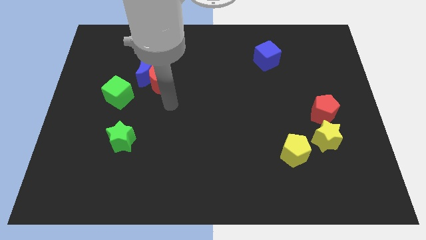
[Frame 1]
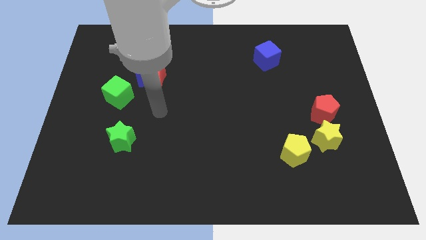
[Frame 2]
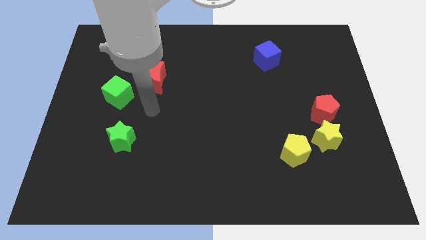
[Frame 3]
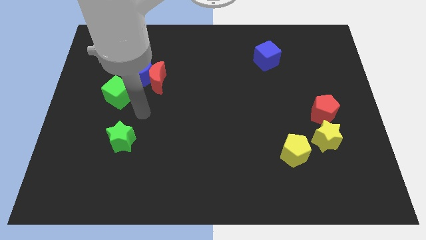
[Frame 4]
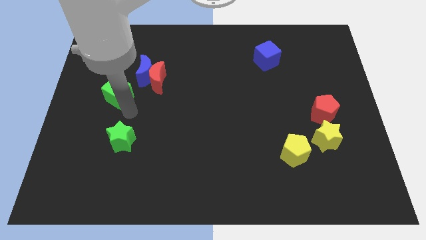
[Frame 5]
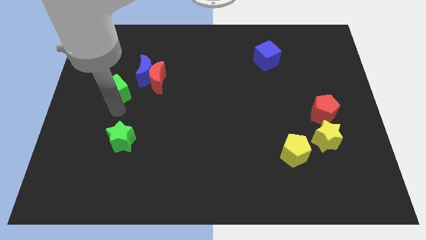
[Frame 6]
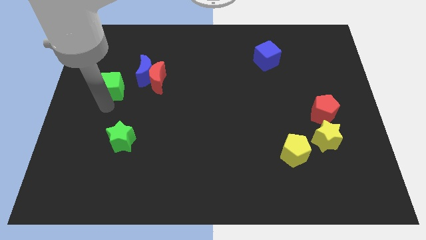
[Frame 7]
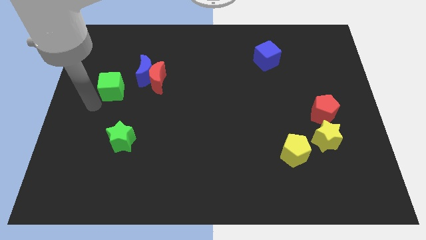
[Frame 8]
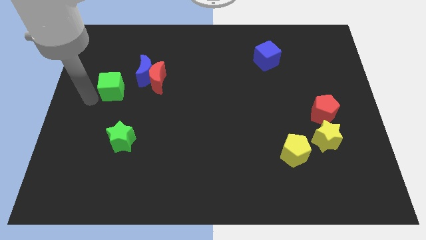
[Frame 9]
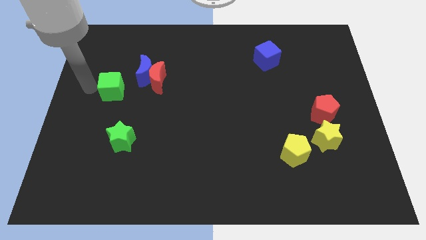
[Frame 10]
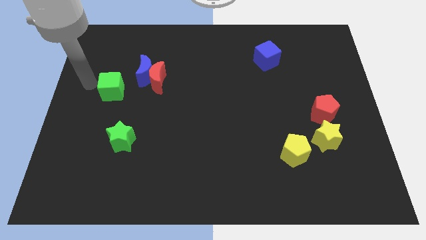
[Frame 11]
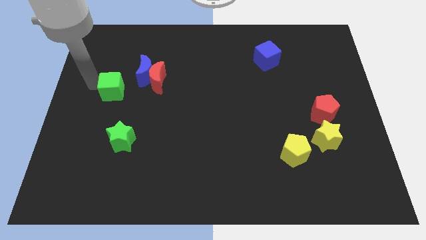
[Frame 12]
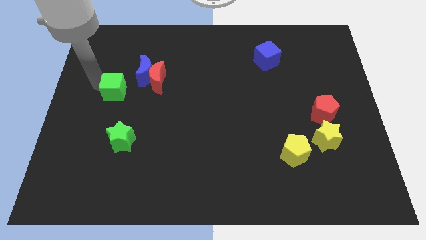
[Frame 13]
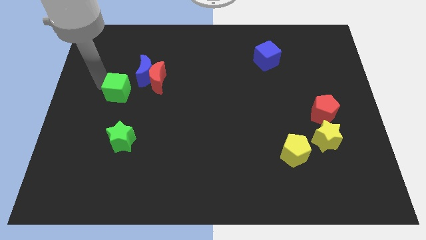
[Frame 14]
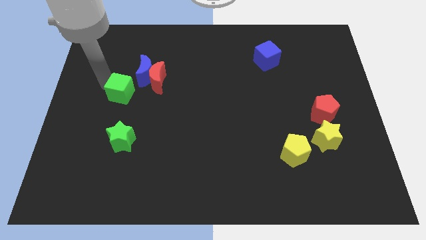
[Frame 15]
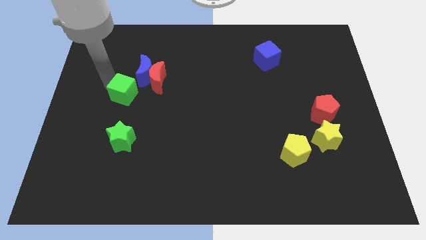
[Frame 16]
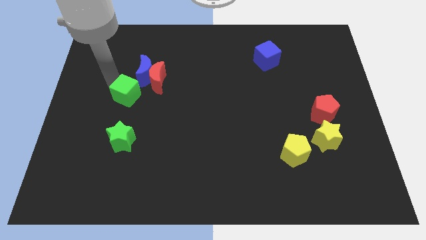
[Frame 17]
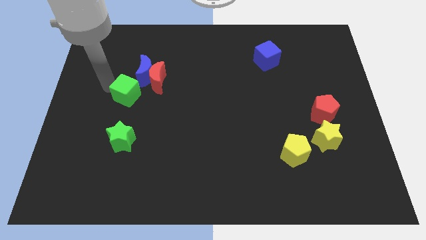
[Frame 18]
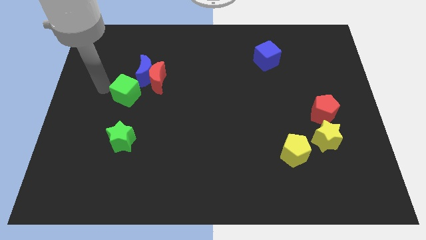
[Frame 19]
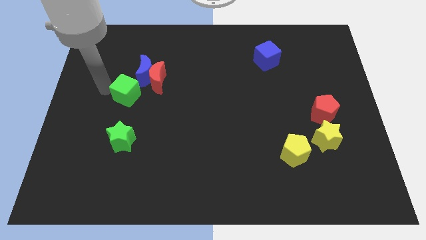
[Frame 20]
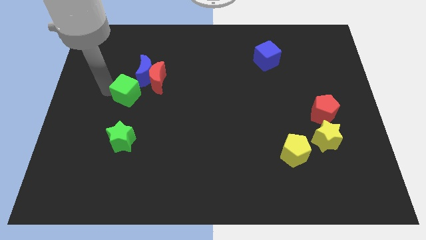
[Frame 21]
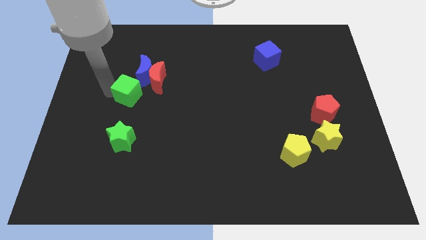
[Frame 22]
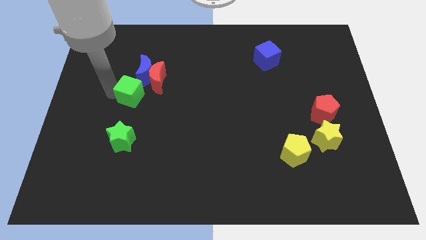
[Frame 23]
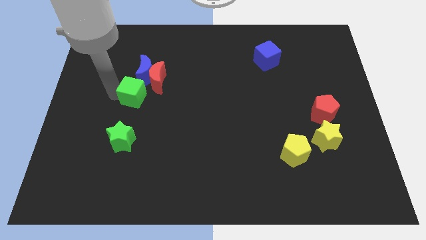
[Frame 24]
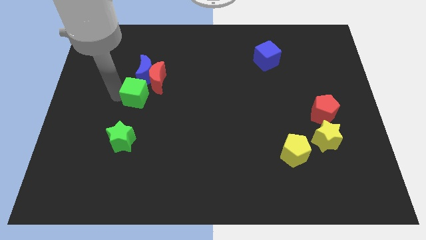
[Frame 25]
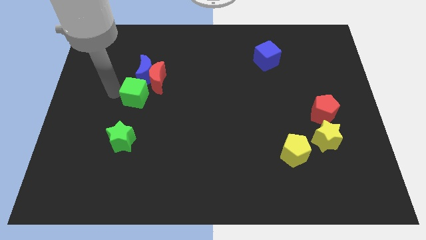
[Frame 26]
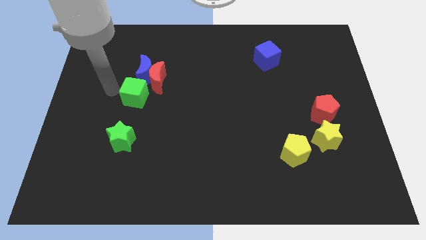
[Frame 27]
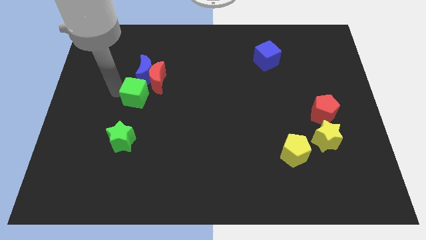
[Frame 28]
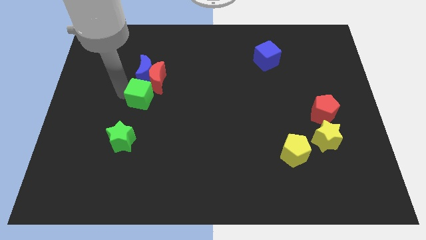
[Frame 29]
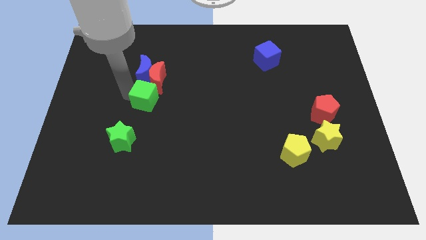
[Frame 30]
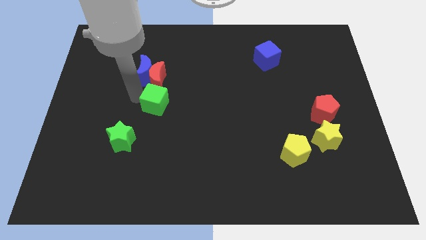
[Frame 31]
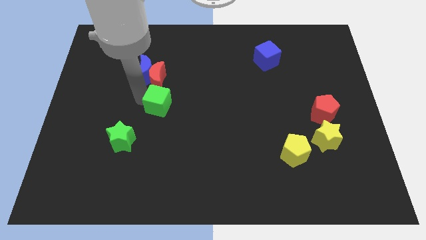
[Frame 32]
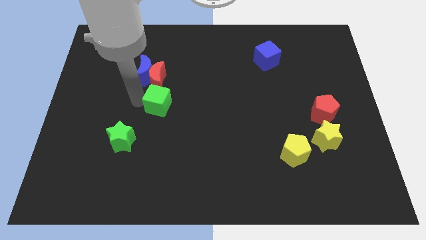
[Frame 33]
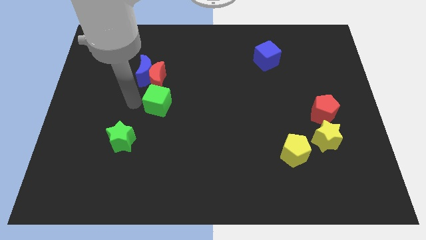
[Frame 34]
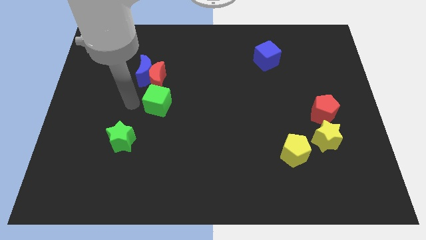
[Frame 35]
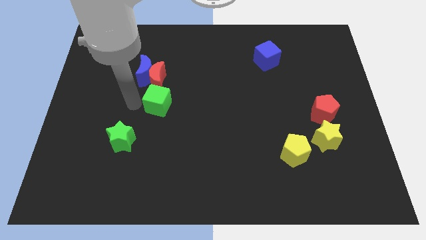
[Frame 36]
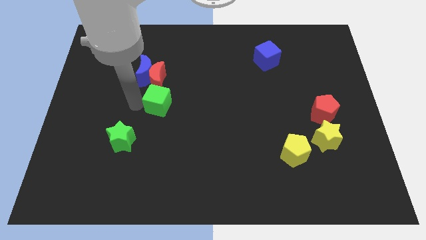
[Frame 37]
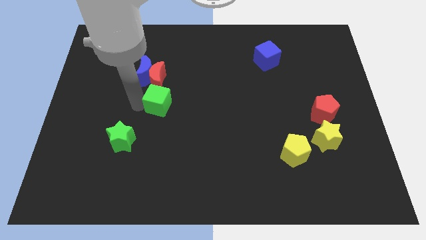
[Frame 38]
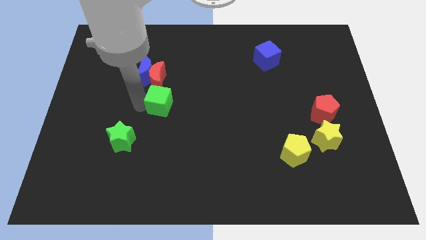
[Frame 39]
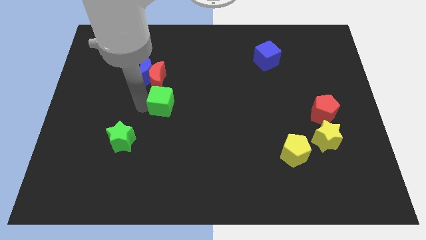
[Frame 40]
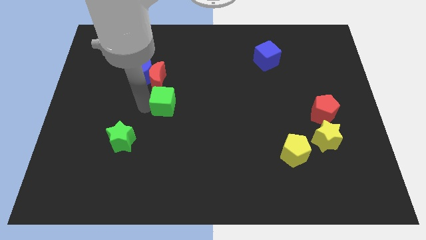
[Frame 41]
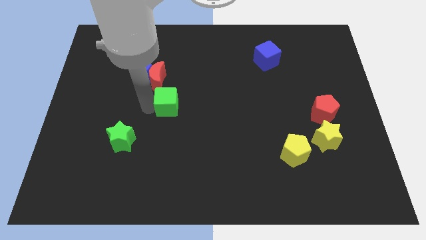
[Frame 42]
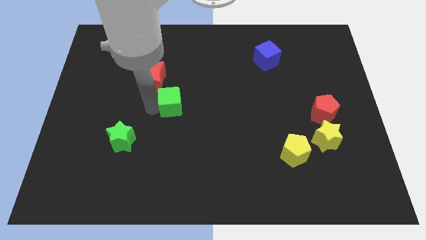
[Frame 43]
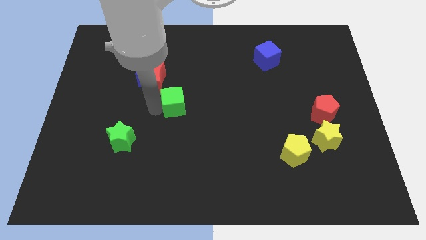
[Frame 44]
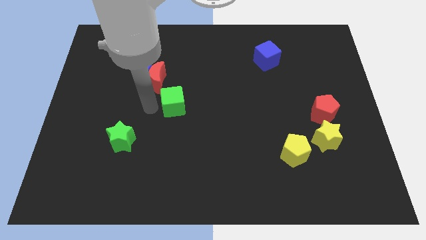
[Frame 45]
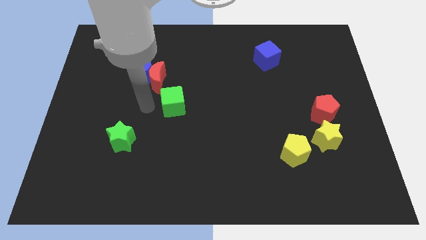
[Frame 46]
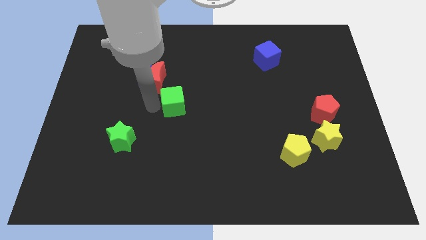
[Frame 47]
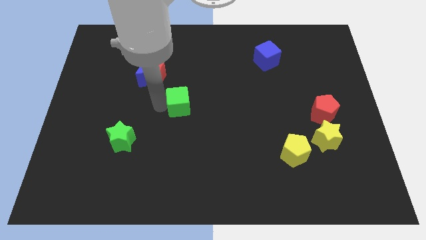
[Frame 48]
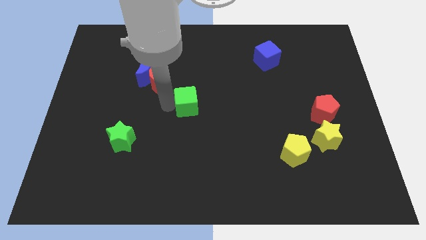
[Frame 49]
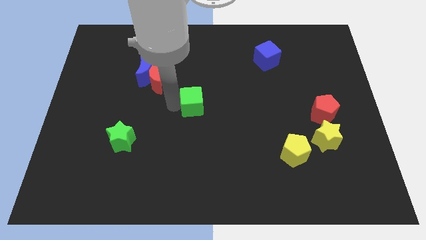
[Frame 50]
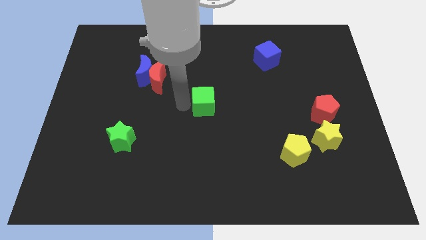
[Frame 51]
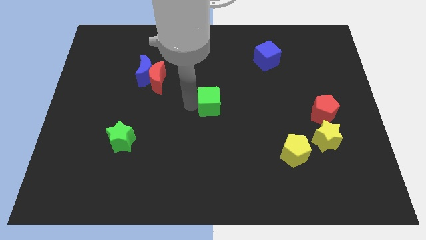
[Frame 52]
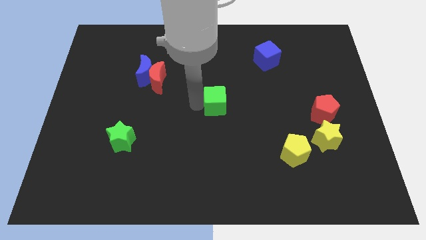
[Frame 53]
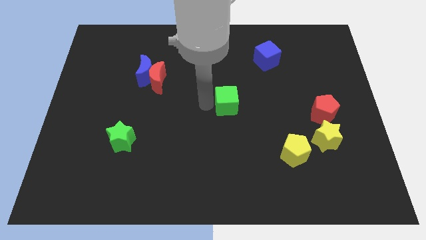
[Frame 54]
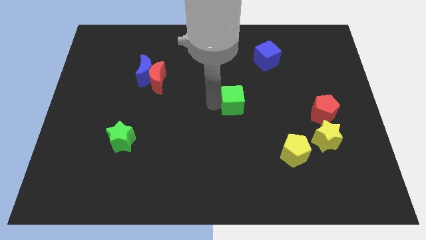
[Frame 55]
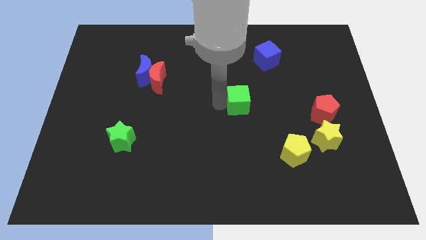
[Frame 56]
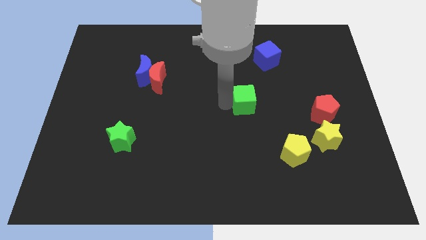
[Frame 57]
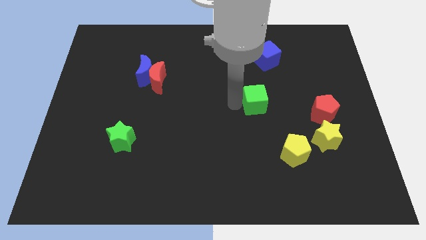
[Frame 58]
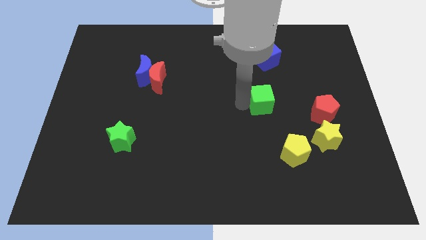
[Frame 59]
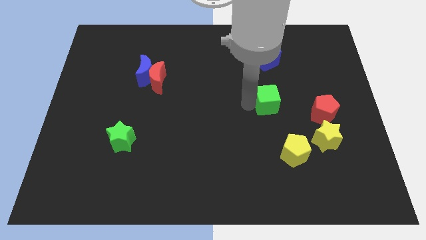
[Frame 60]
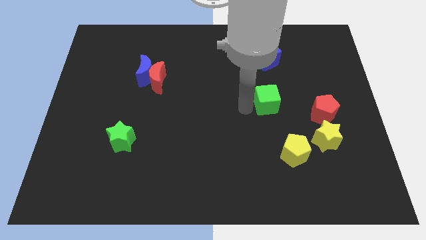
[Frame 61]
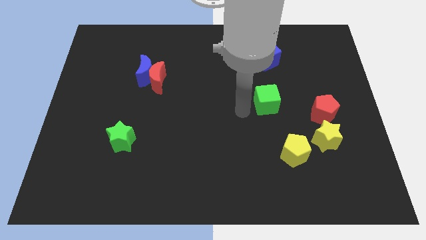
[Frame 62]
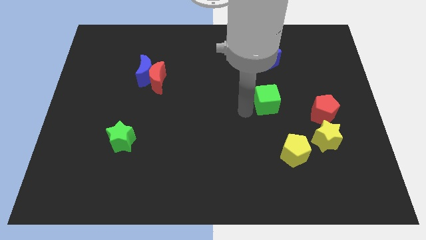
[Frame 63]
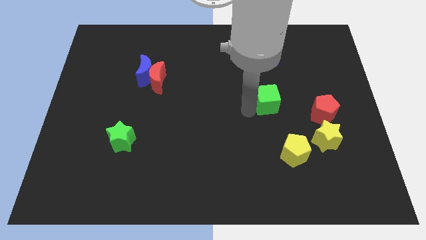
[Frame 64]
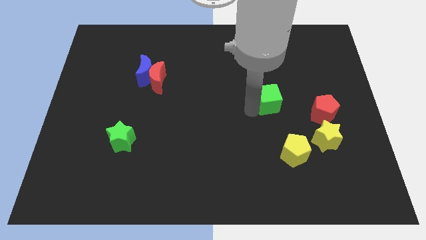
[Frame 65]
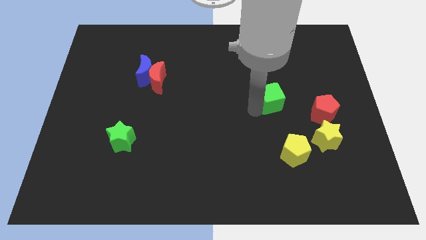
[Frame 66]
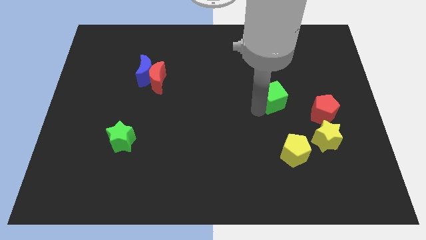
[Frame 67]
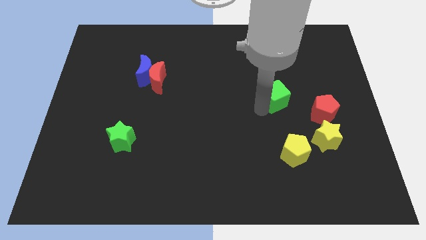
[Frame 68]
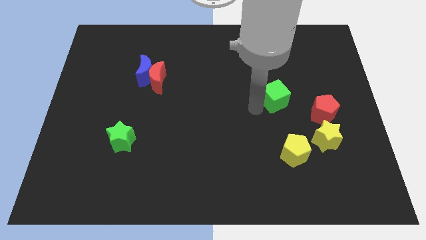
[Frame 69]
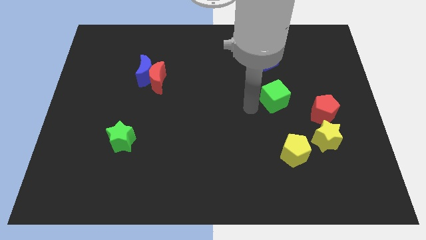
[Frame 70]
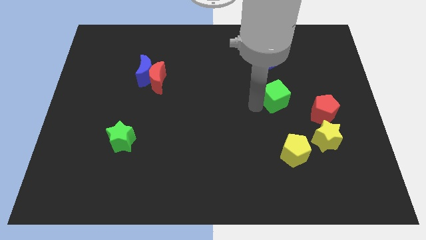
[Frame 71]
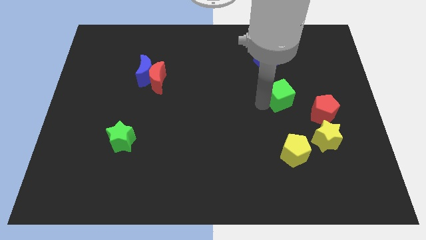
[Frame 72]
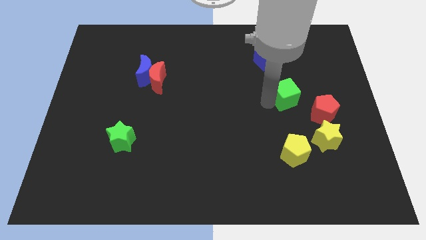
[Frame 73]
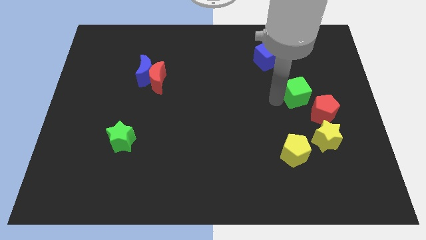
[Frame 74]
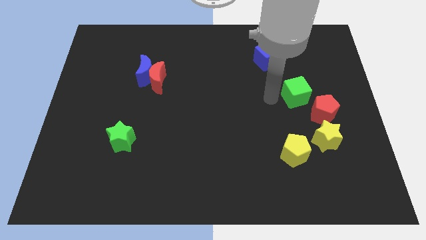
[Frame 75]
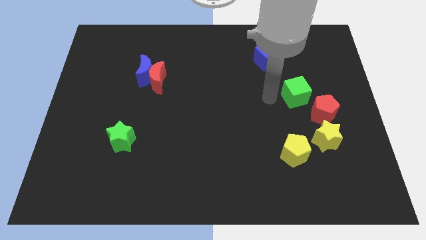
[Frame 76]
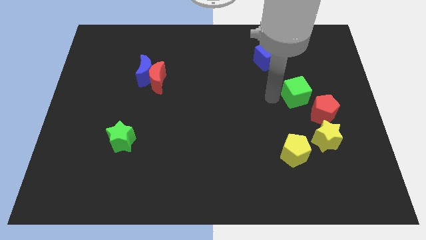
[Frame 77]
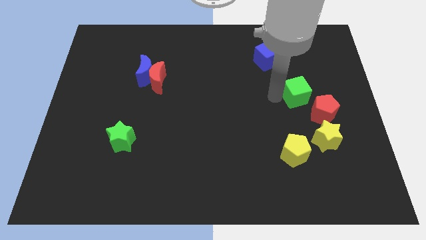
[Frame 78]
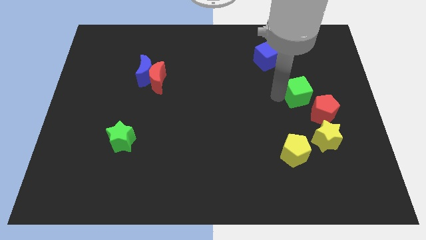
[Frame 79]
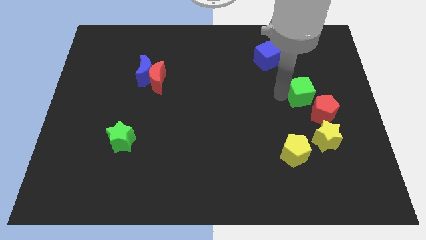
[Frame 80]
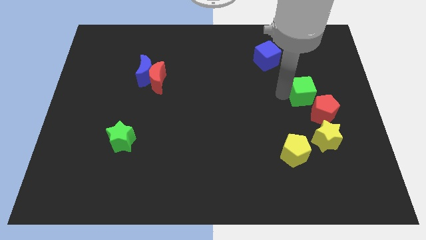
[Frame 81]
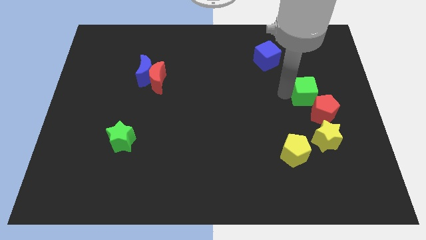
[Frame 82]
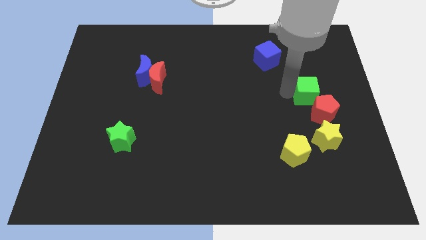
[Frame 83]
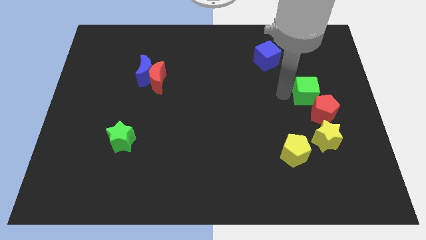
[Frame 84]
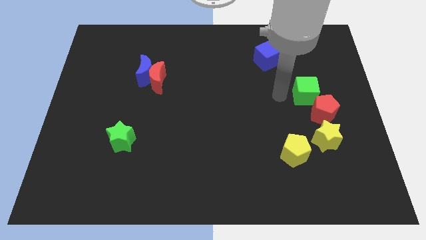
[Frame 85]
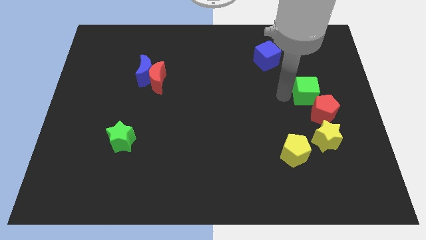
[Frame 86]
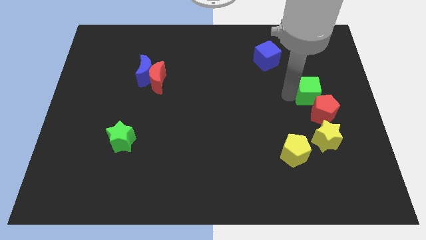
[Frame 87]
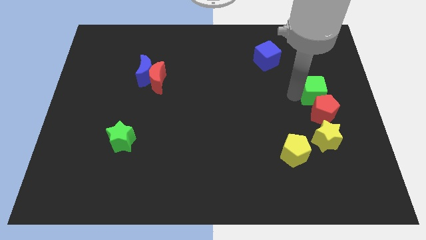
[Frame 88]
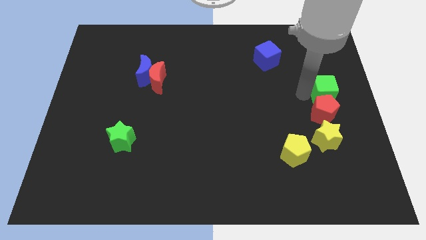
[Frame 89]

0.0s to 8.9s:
put the green cube to the right side
